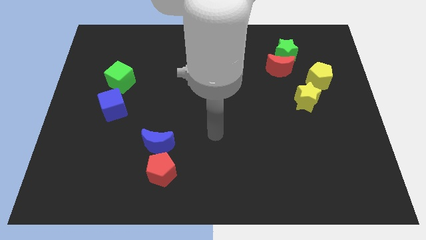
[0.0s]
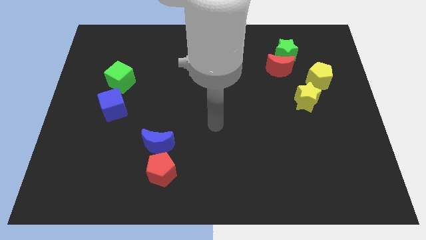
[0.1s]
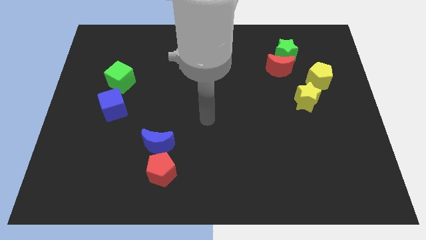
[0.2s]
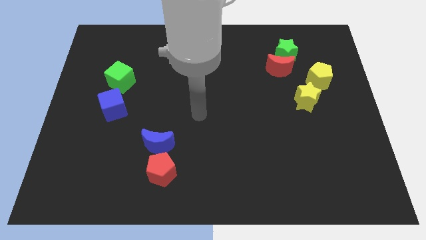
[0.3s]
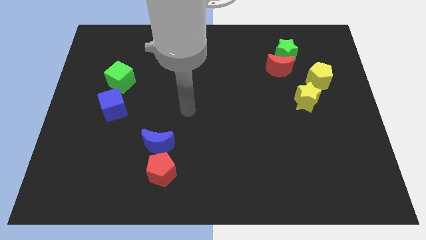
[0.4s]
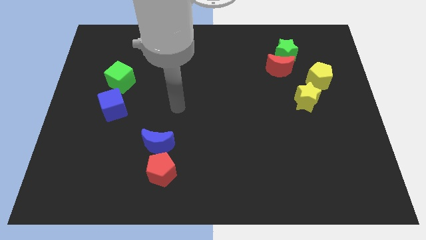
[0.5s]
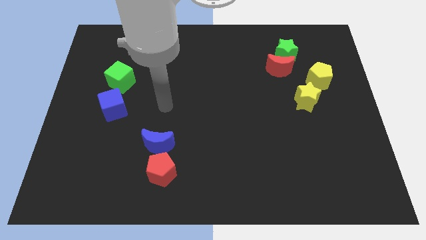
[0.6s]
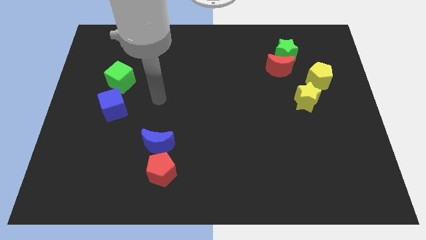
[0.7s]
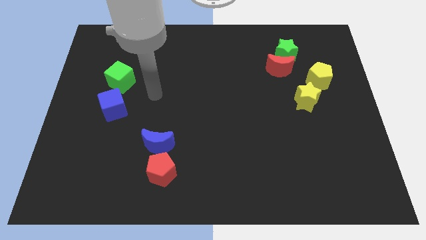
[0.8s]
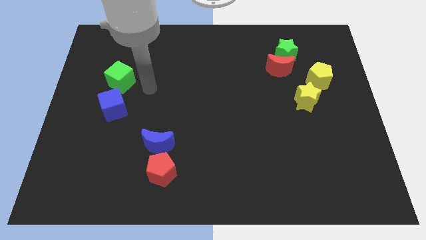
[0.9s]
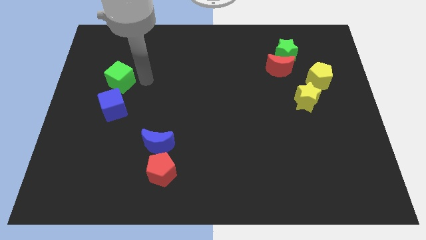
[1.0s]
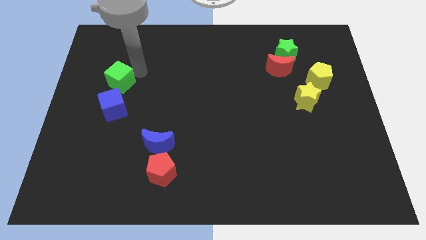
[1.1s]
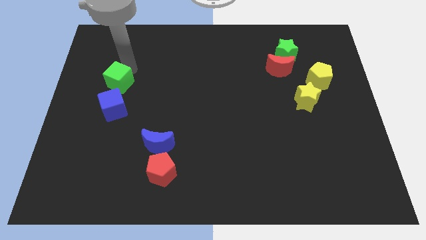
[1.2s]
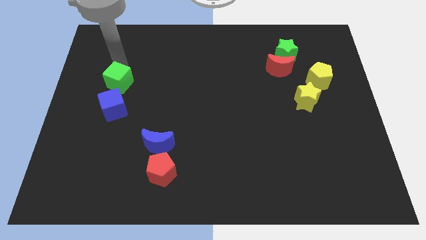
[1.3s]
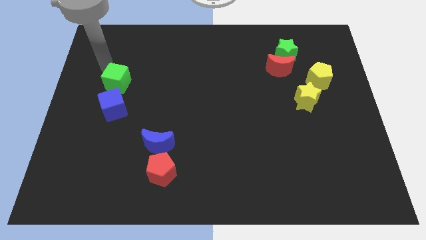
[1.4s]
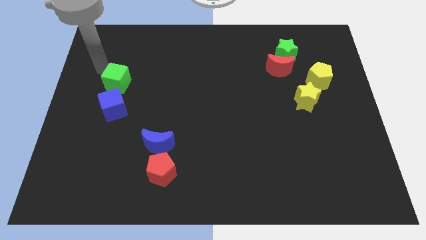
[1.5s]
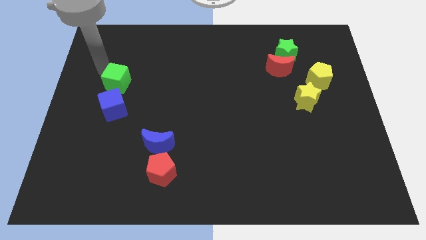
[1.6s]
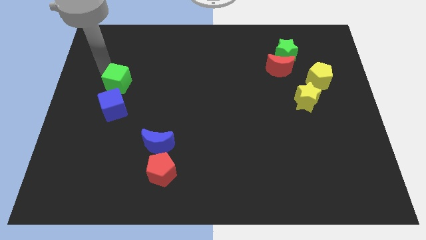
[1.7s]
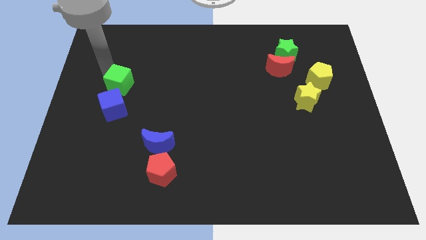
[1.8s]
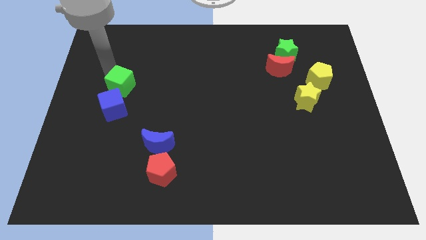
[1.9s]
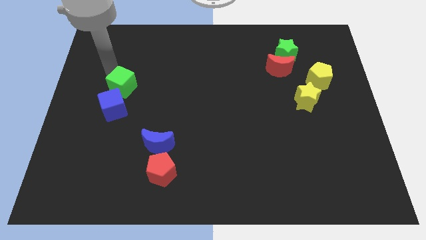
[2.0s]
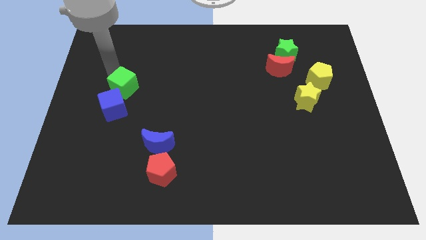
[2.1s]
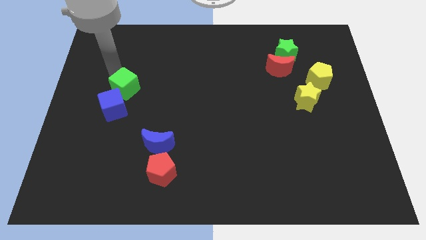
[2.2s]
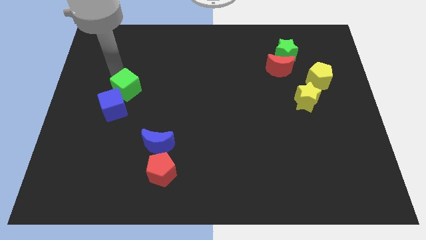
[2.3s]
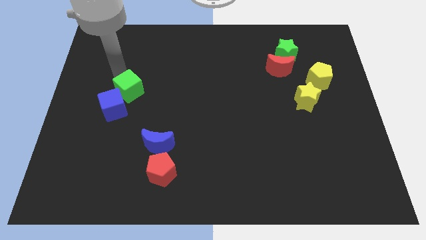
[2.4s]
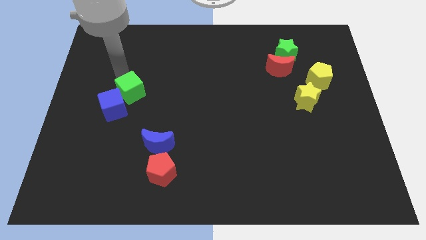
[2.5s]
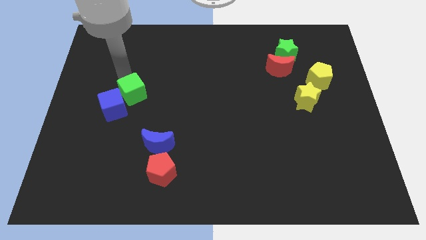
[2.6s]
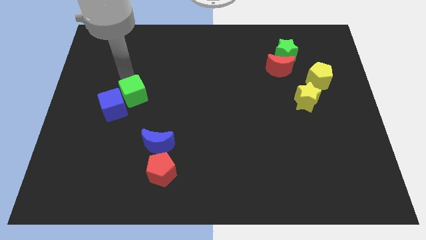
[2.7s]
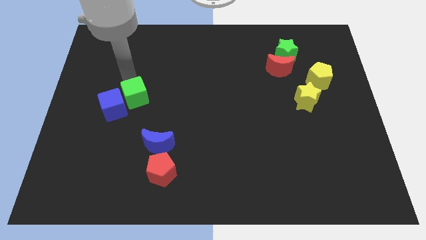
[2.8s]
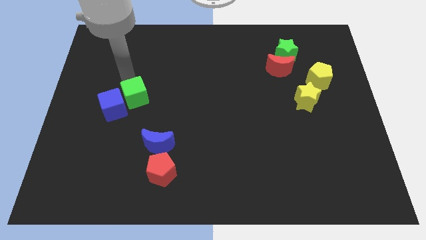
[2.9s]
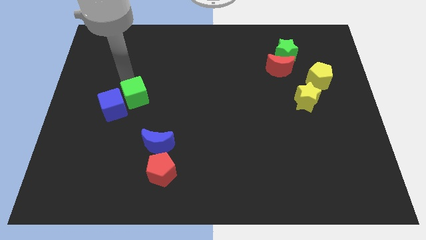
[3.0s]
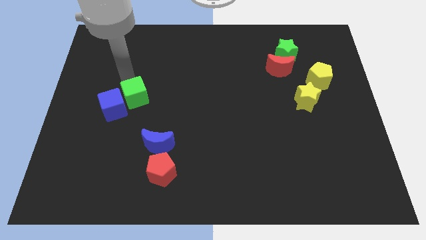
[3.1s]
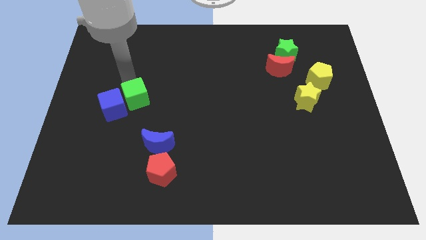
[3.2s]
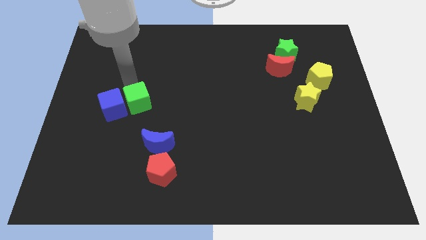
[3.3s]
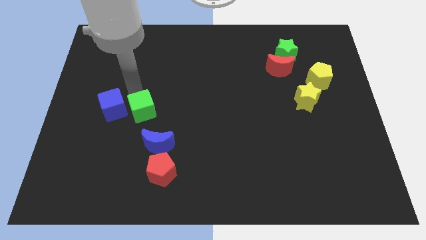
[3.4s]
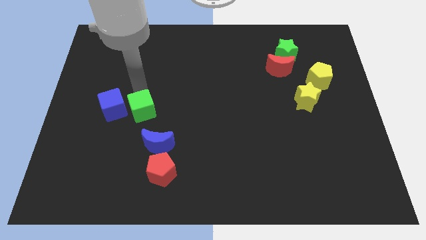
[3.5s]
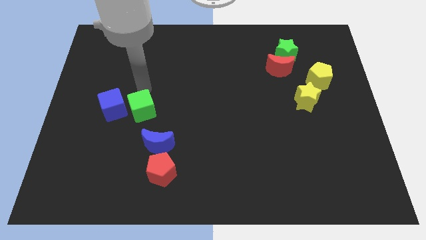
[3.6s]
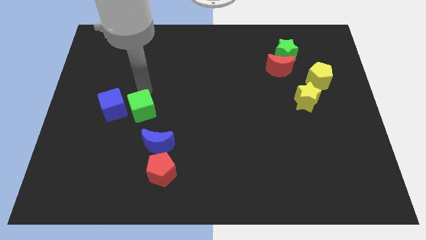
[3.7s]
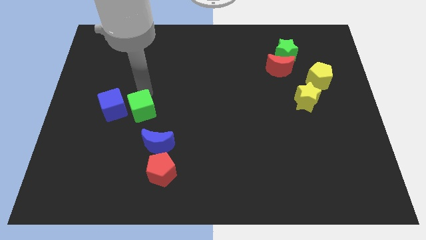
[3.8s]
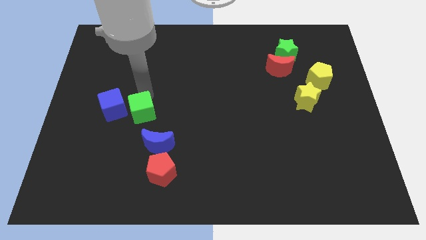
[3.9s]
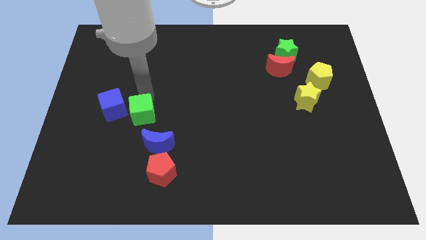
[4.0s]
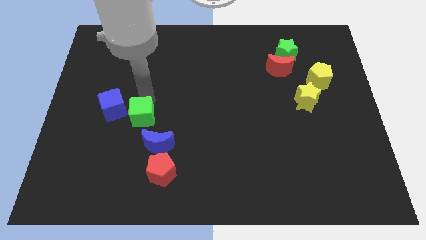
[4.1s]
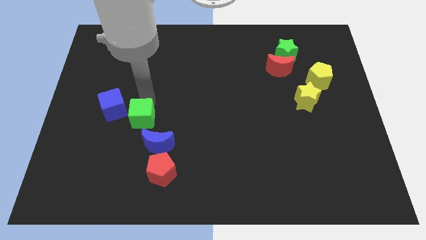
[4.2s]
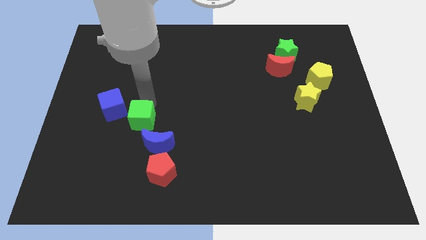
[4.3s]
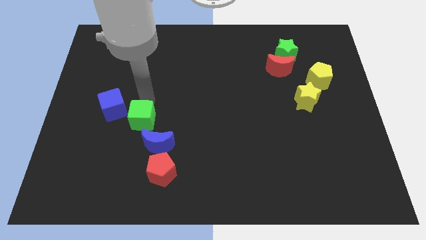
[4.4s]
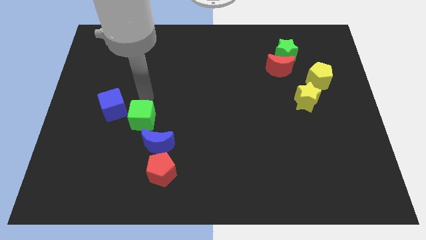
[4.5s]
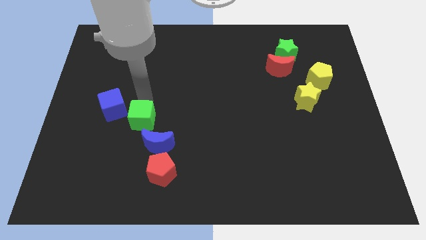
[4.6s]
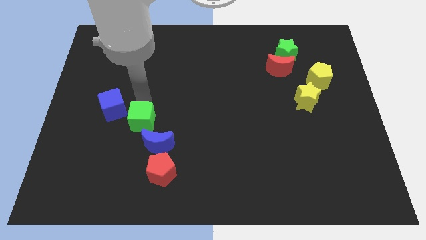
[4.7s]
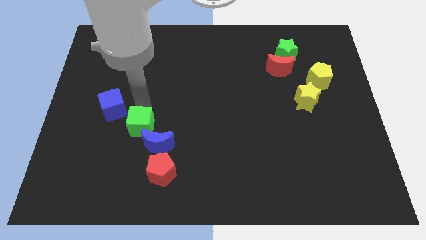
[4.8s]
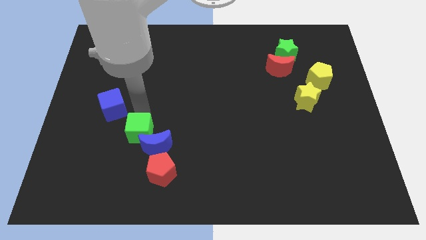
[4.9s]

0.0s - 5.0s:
move the green cube to the top left side of the red pentagon

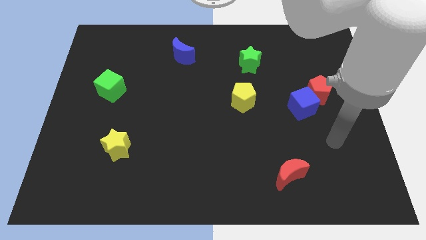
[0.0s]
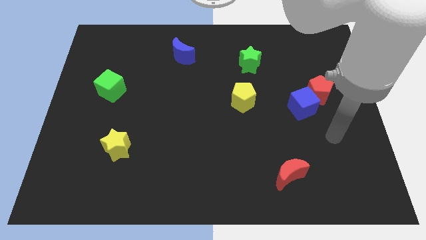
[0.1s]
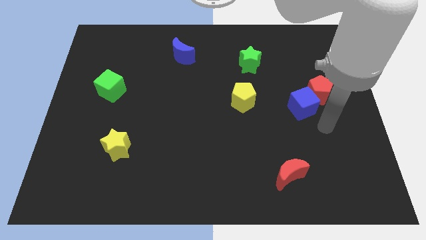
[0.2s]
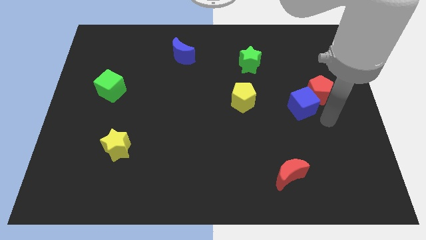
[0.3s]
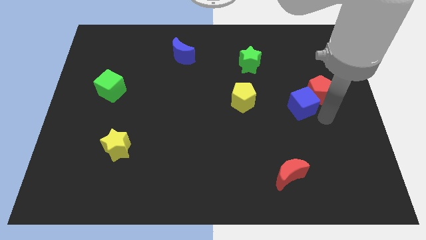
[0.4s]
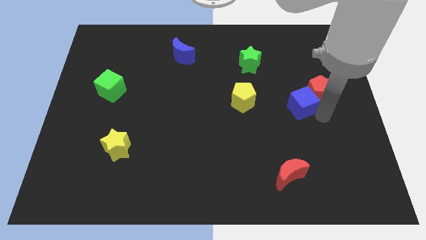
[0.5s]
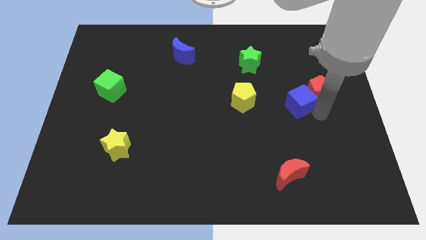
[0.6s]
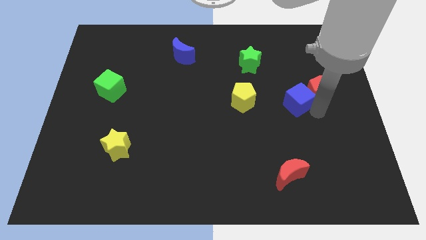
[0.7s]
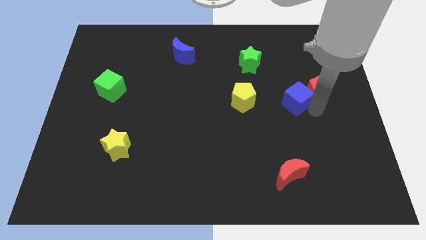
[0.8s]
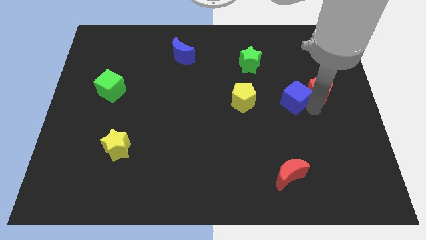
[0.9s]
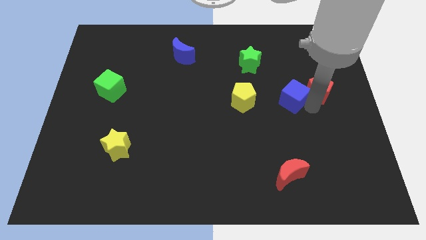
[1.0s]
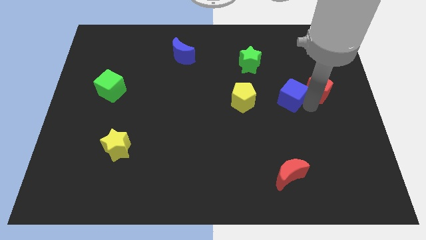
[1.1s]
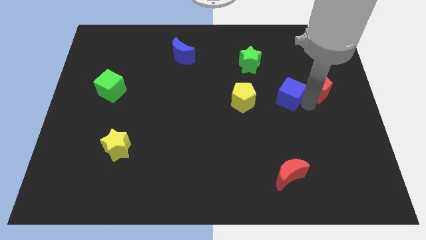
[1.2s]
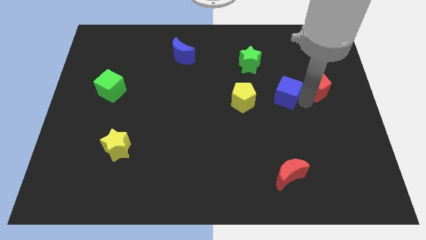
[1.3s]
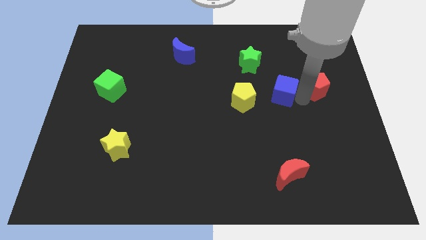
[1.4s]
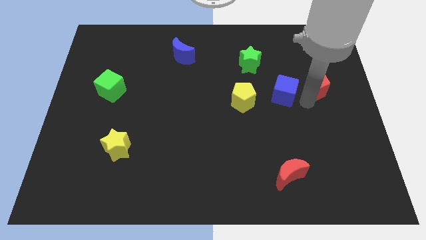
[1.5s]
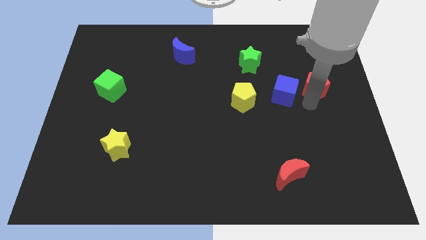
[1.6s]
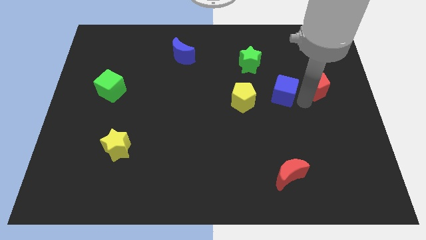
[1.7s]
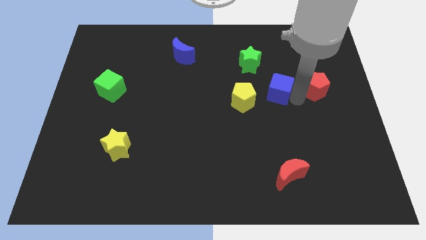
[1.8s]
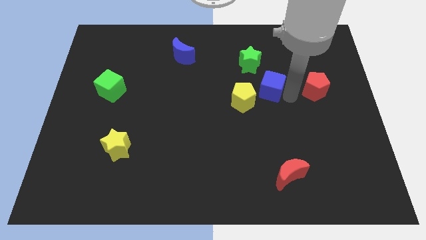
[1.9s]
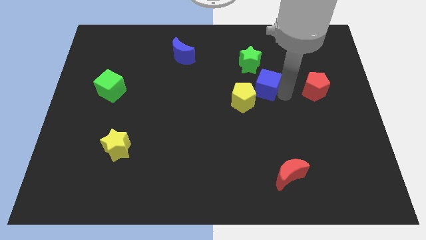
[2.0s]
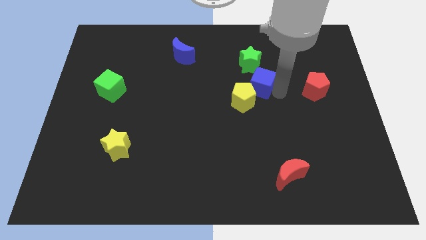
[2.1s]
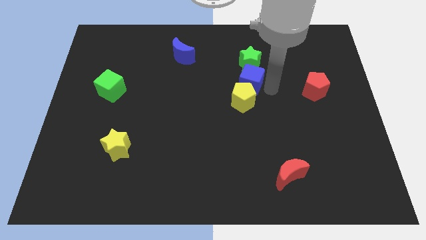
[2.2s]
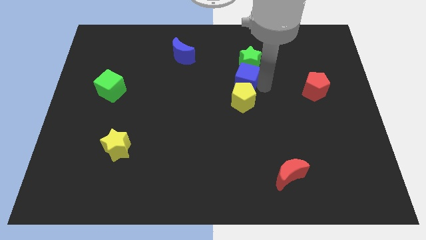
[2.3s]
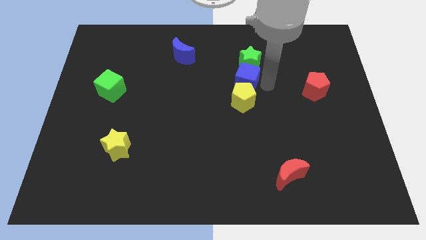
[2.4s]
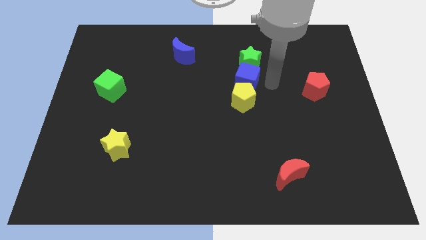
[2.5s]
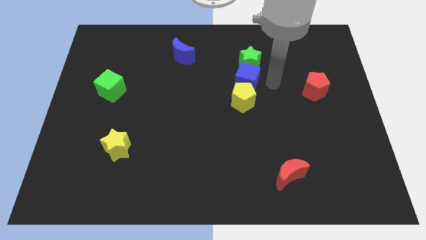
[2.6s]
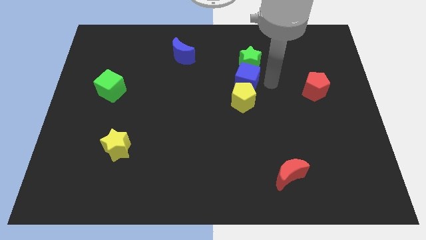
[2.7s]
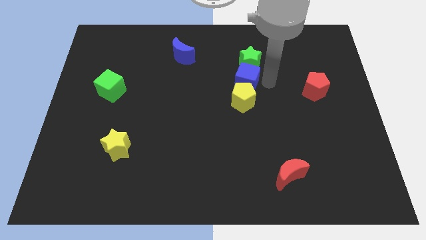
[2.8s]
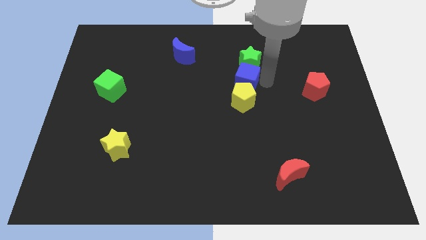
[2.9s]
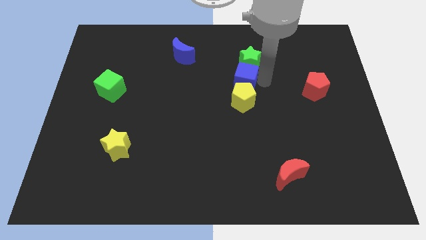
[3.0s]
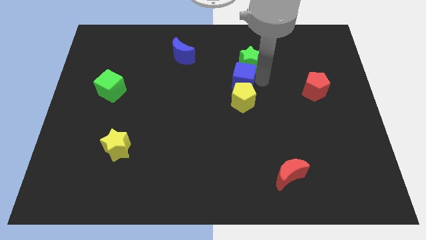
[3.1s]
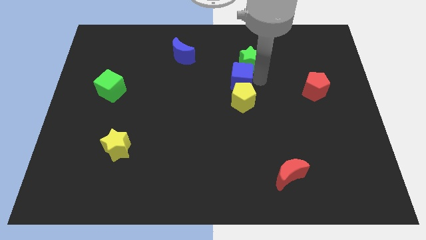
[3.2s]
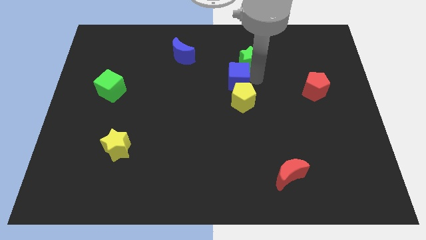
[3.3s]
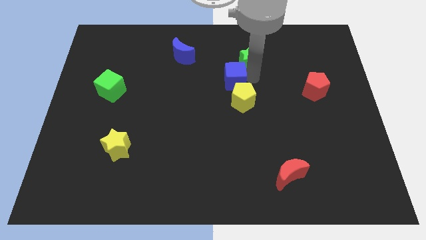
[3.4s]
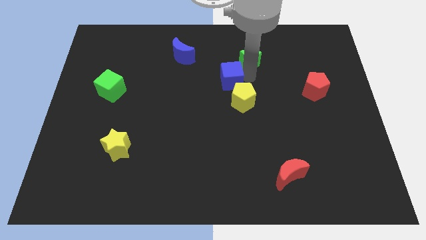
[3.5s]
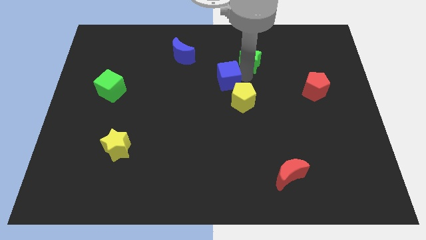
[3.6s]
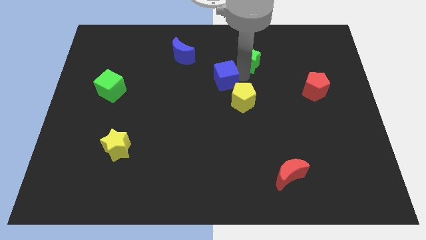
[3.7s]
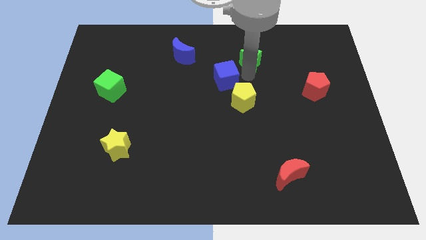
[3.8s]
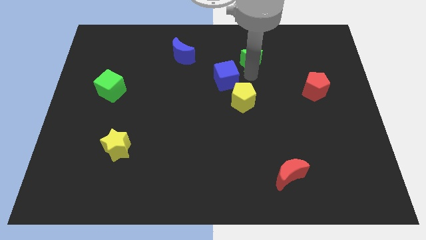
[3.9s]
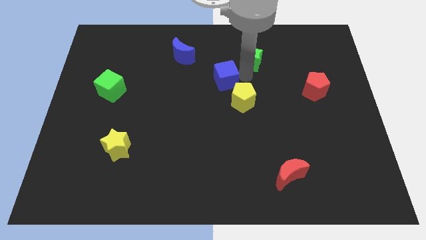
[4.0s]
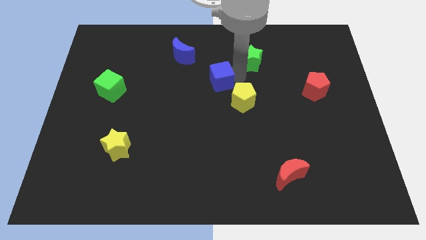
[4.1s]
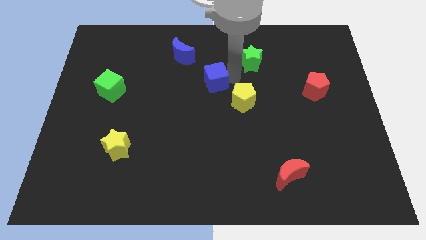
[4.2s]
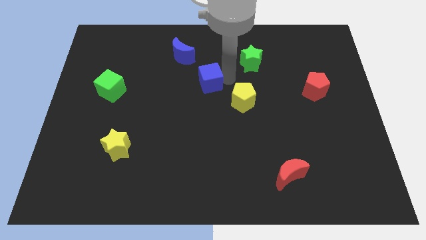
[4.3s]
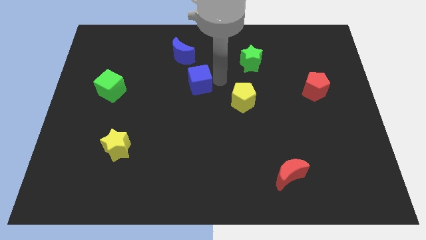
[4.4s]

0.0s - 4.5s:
slide the blue cube to the bottom side of the blue moon
